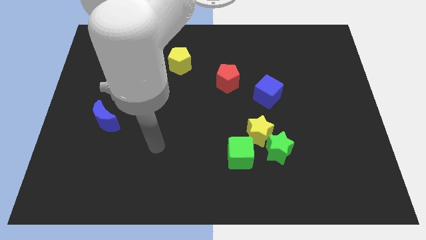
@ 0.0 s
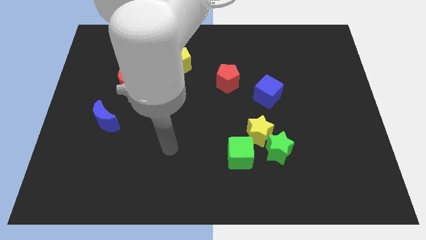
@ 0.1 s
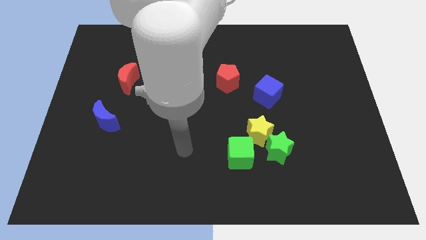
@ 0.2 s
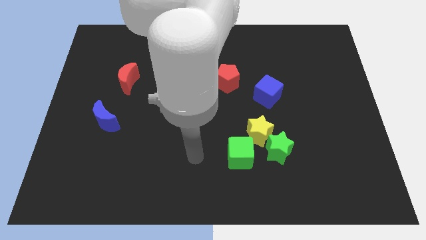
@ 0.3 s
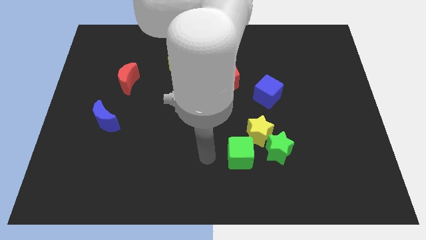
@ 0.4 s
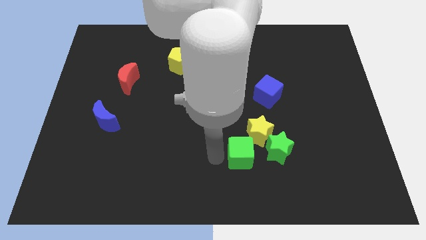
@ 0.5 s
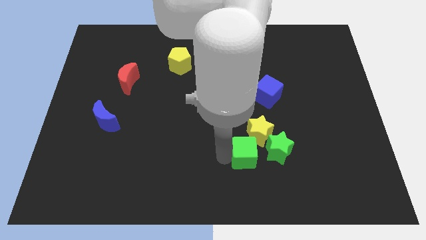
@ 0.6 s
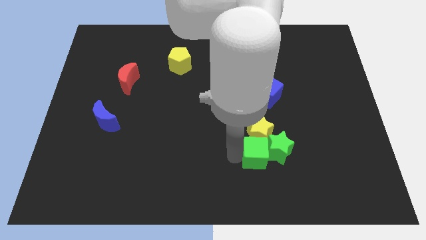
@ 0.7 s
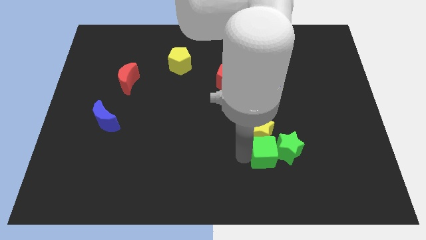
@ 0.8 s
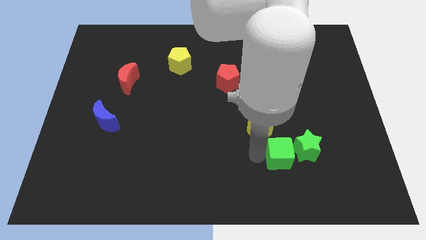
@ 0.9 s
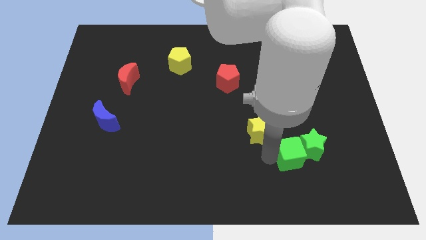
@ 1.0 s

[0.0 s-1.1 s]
separate the yellow star from the green star and green cube

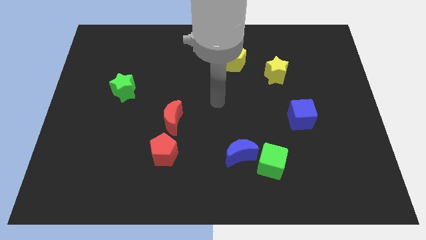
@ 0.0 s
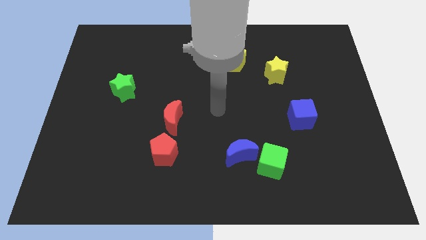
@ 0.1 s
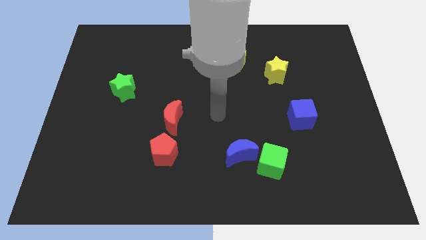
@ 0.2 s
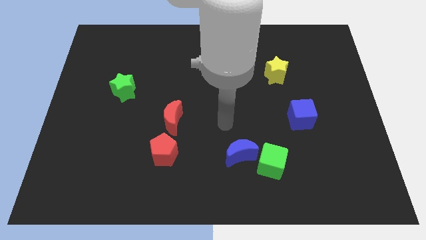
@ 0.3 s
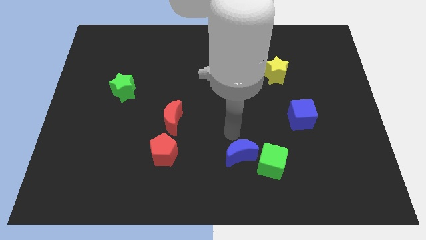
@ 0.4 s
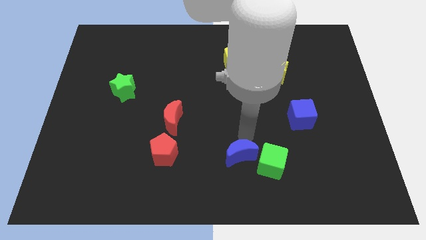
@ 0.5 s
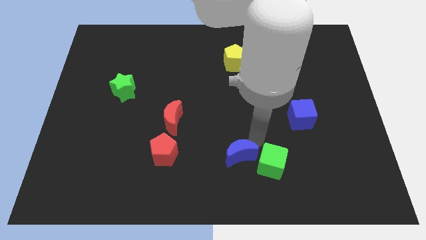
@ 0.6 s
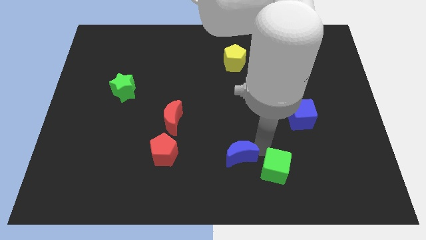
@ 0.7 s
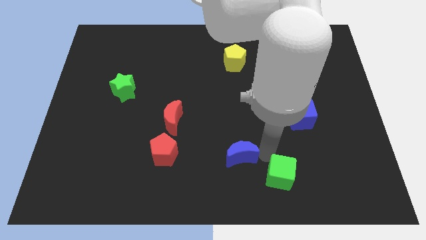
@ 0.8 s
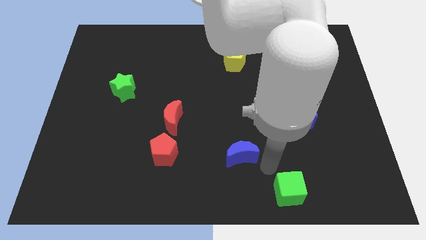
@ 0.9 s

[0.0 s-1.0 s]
pull the blue moon apart from the green cube

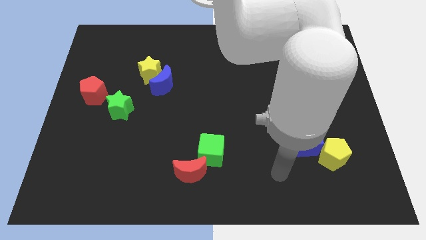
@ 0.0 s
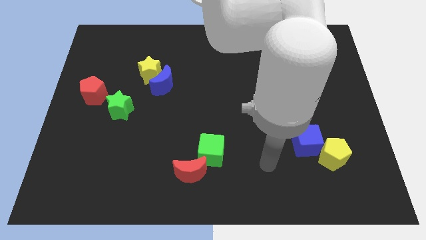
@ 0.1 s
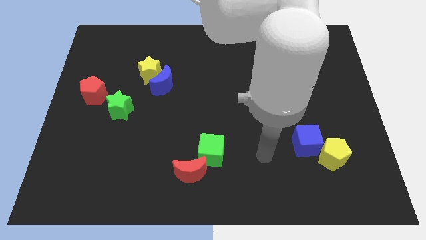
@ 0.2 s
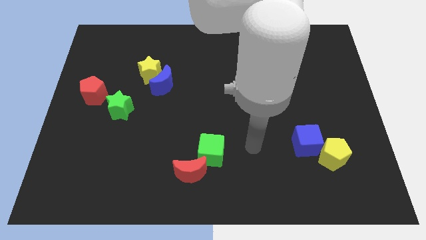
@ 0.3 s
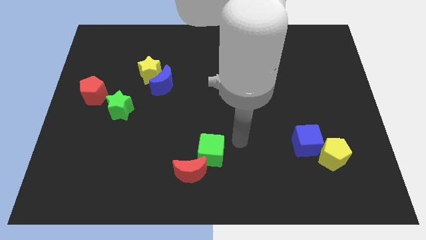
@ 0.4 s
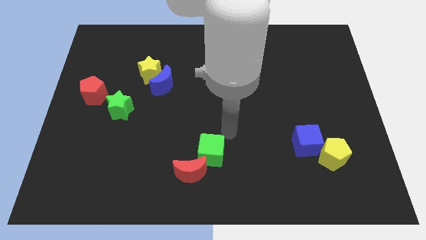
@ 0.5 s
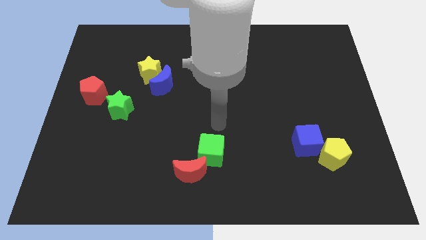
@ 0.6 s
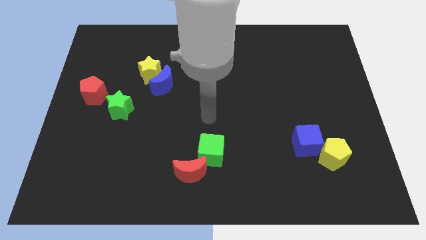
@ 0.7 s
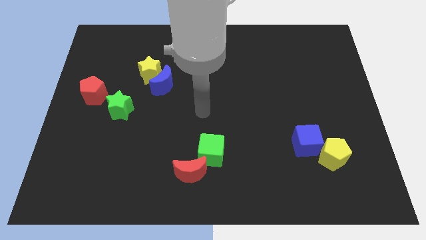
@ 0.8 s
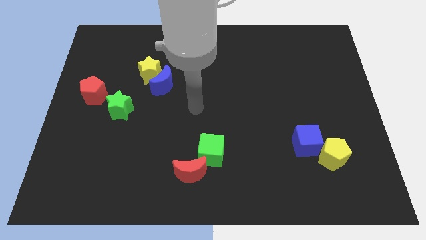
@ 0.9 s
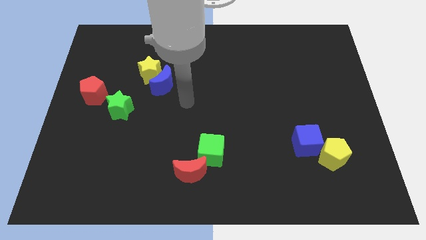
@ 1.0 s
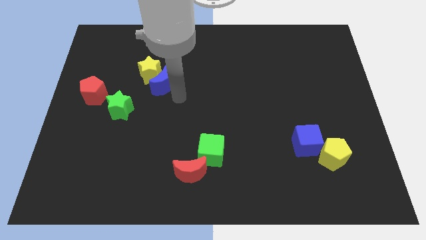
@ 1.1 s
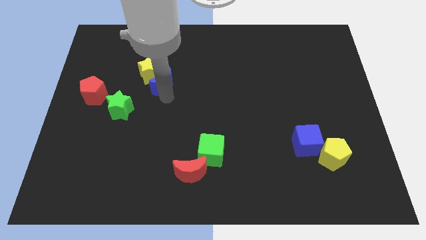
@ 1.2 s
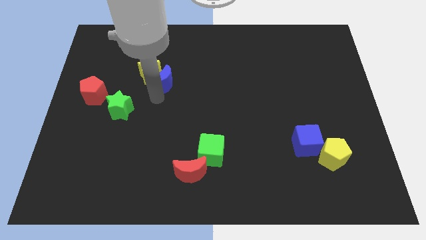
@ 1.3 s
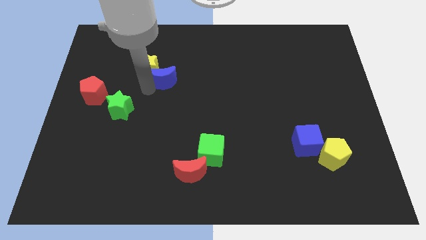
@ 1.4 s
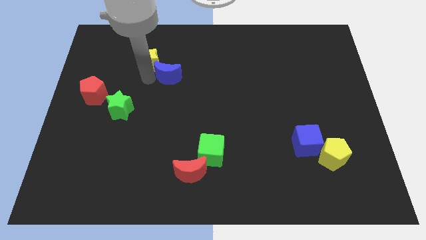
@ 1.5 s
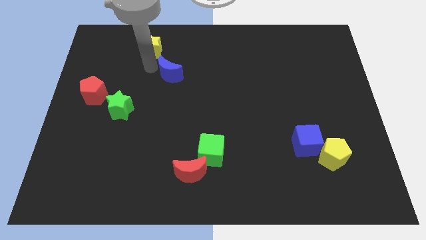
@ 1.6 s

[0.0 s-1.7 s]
move the blue moon away from the yellow star

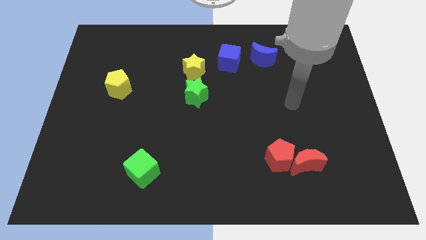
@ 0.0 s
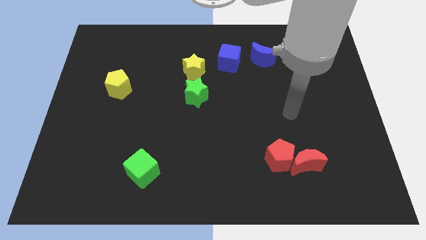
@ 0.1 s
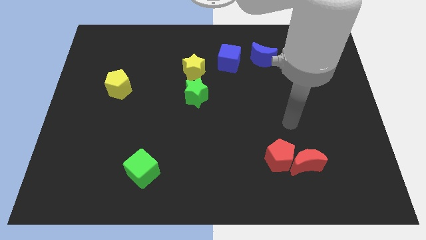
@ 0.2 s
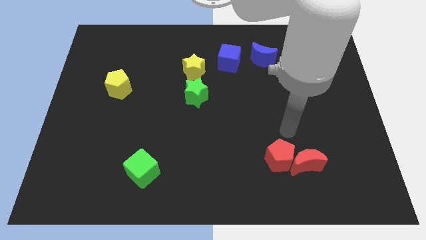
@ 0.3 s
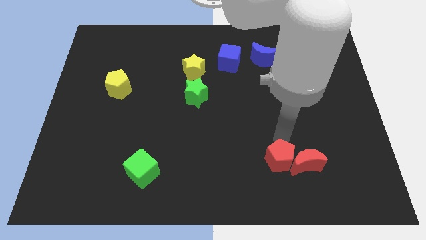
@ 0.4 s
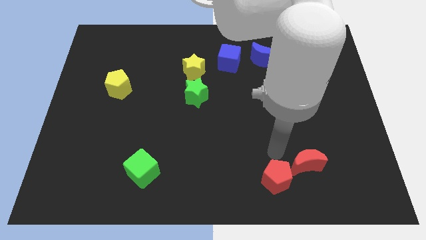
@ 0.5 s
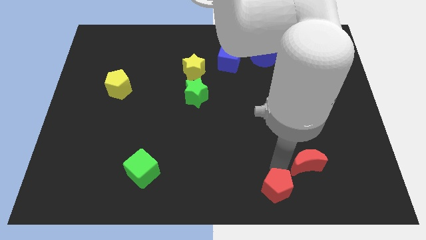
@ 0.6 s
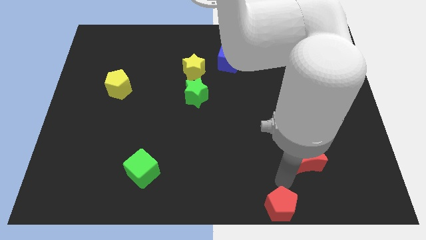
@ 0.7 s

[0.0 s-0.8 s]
move the red moon away from the red pentagon

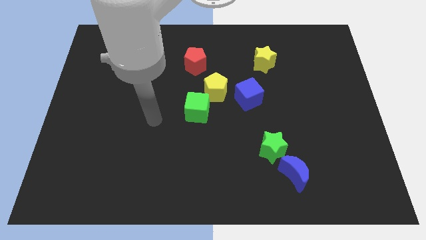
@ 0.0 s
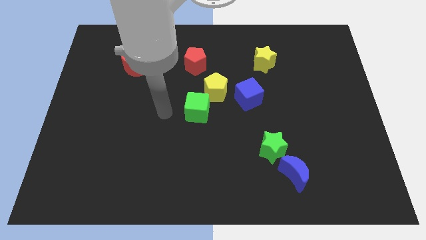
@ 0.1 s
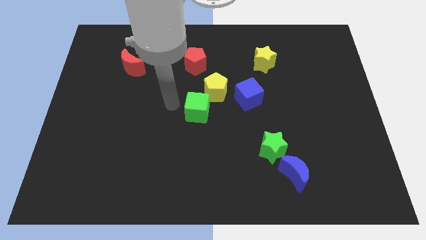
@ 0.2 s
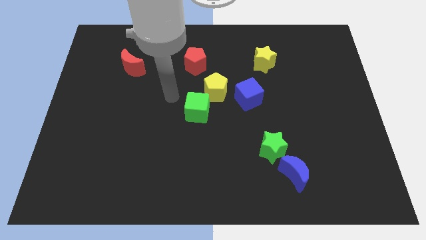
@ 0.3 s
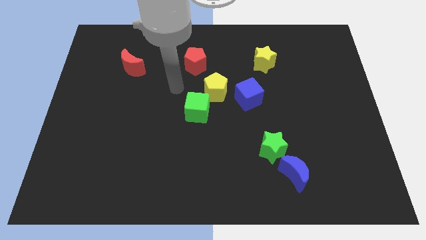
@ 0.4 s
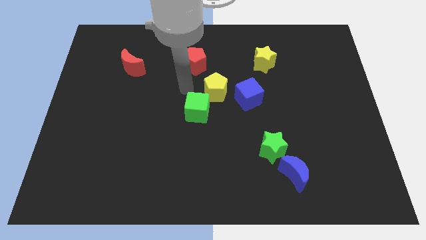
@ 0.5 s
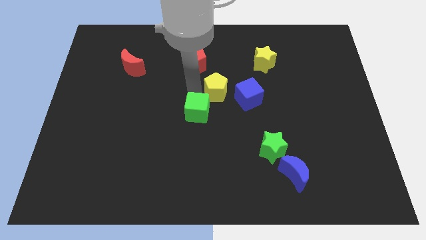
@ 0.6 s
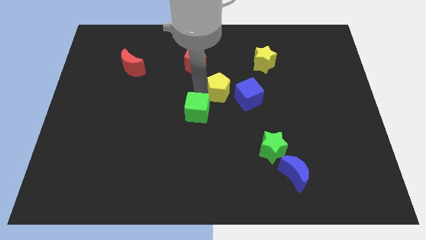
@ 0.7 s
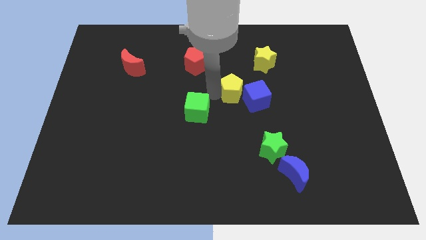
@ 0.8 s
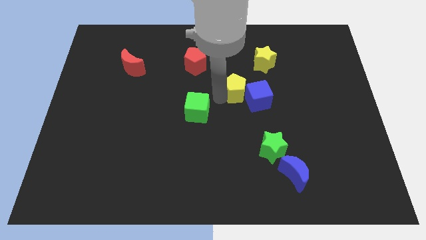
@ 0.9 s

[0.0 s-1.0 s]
separate the green cube from the yellow pentagon

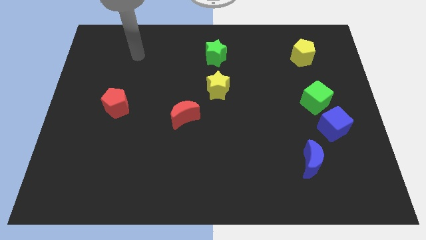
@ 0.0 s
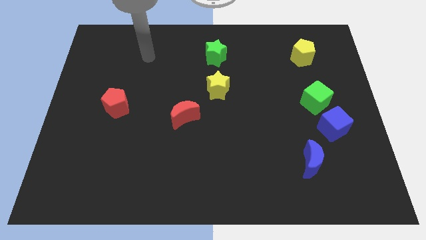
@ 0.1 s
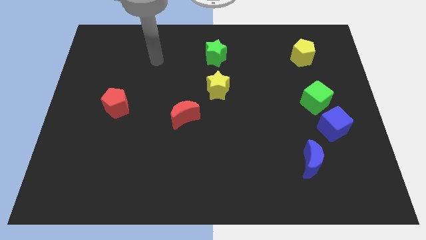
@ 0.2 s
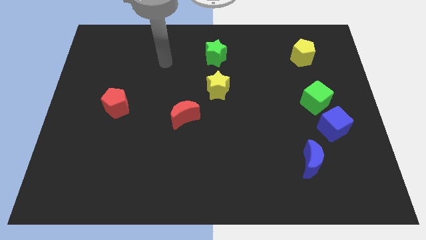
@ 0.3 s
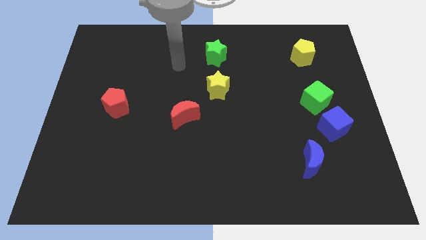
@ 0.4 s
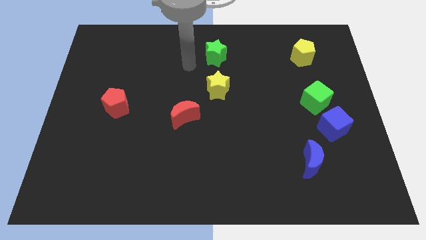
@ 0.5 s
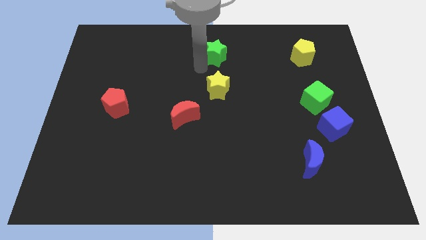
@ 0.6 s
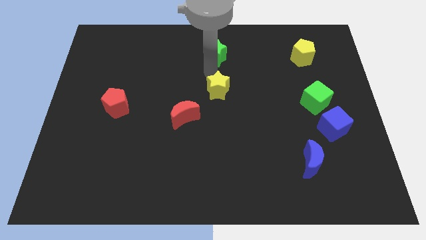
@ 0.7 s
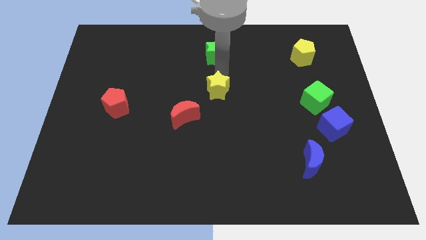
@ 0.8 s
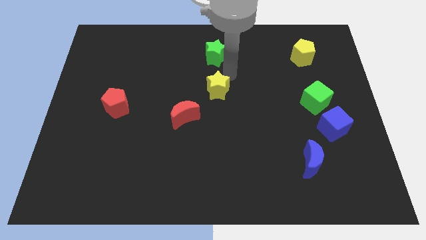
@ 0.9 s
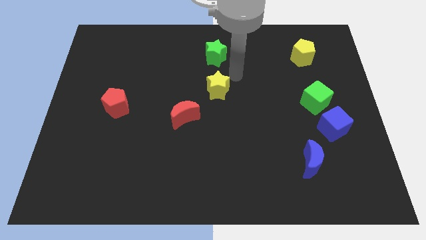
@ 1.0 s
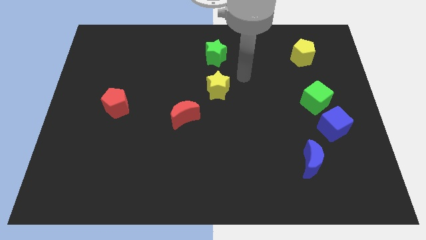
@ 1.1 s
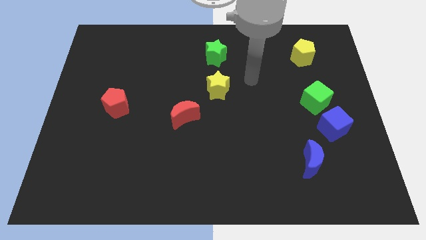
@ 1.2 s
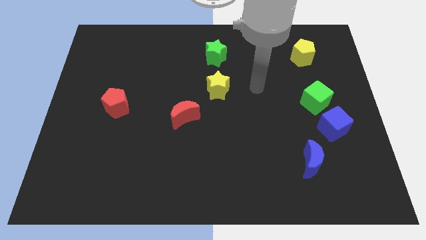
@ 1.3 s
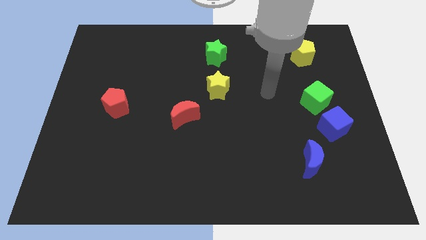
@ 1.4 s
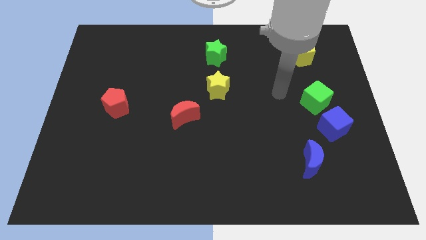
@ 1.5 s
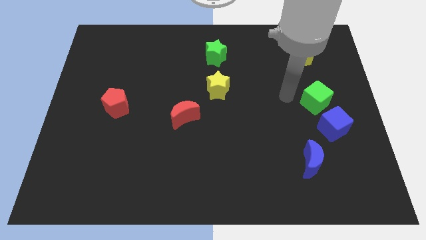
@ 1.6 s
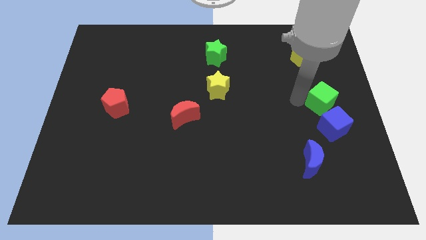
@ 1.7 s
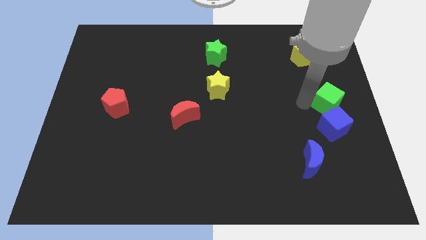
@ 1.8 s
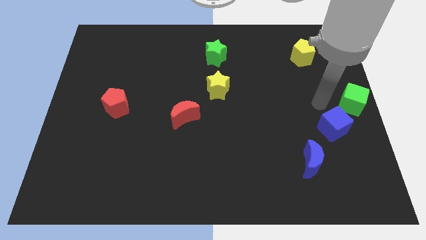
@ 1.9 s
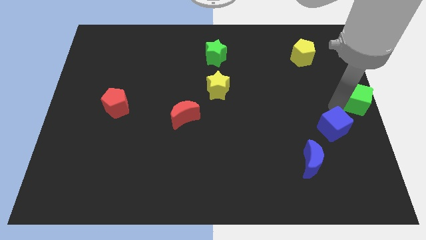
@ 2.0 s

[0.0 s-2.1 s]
move the blue cube away from the green cube

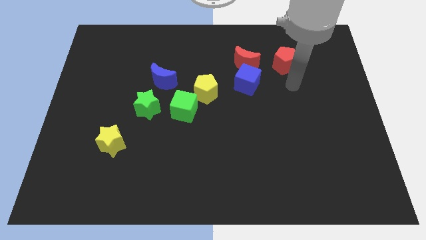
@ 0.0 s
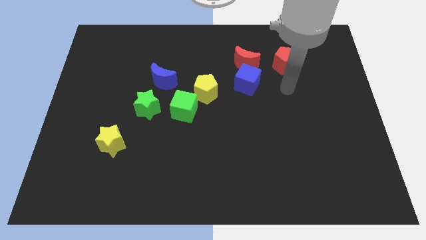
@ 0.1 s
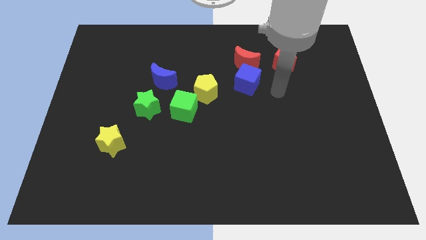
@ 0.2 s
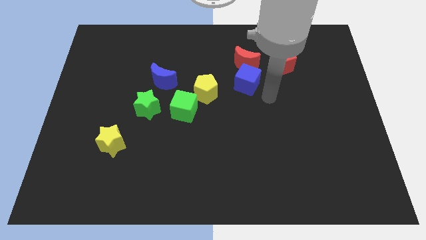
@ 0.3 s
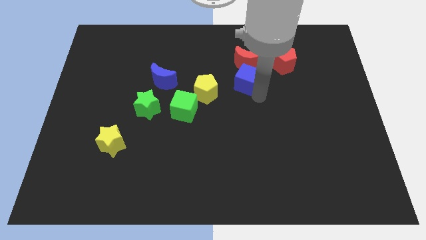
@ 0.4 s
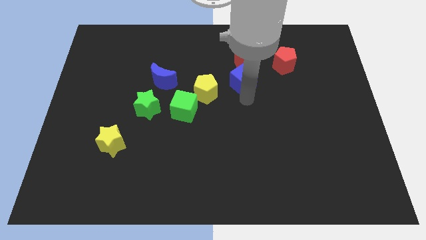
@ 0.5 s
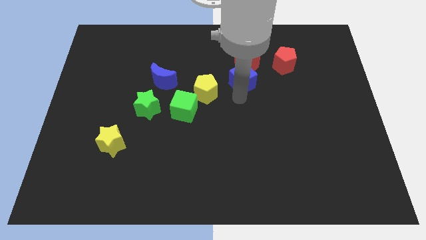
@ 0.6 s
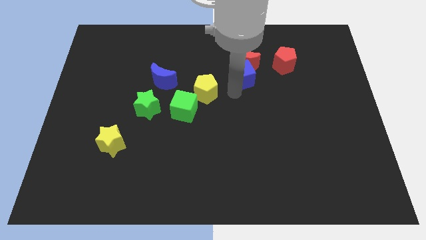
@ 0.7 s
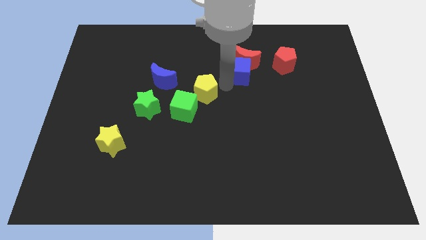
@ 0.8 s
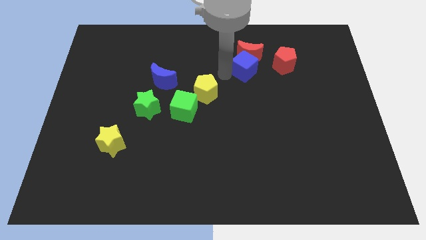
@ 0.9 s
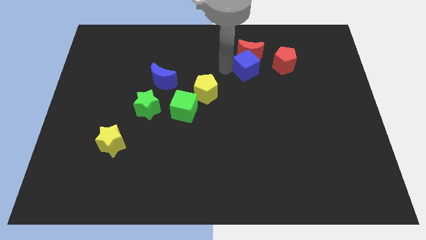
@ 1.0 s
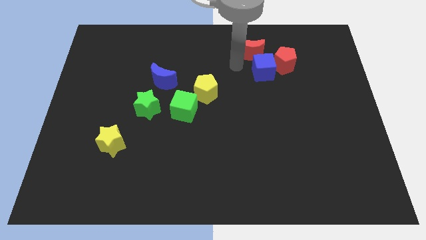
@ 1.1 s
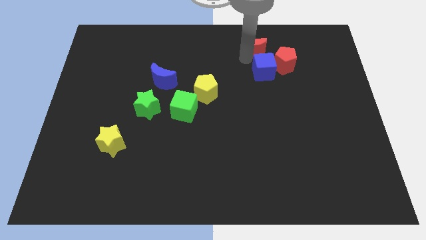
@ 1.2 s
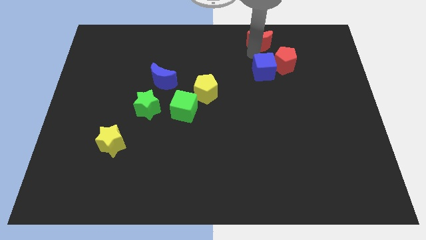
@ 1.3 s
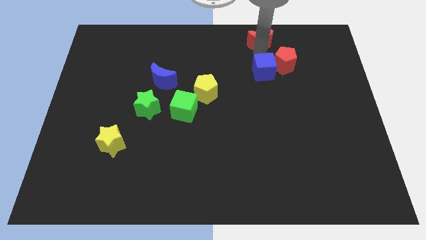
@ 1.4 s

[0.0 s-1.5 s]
move the blue cube away from the red moon

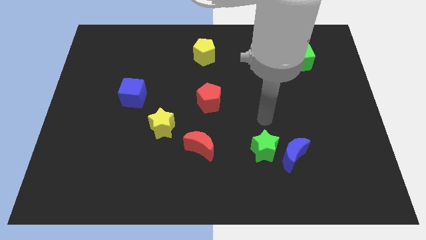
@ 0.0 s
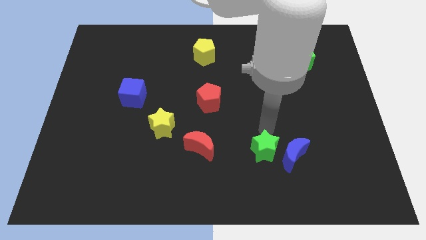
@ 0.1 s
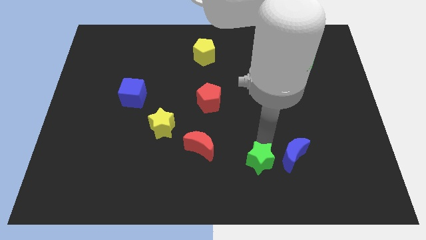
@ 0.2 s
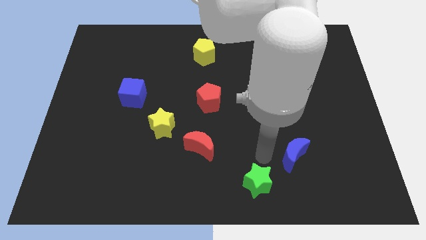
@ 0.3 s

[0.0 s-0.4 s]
separate the blue moon from the green star
